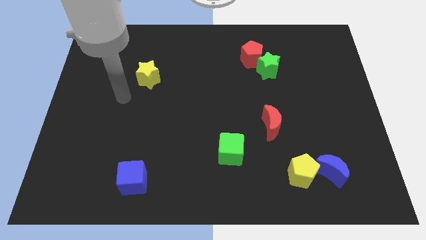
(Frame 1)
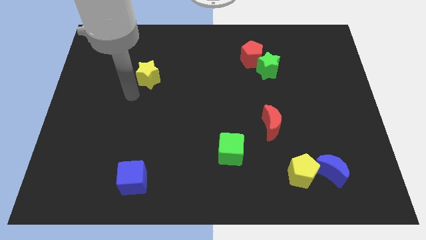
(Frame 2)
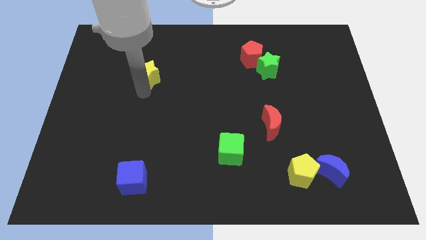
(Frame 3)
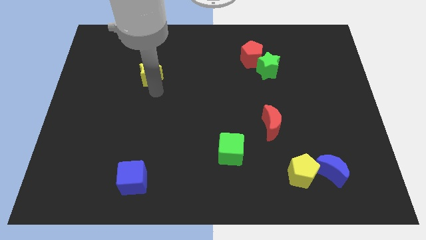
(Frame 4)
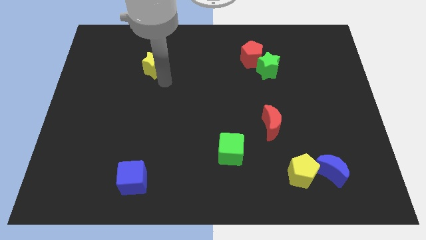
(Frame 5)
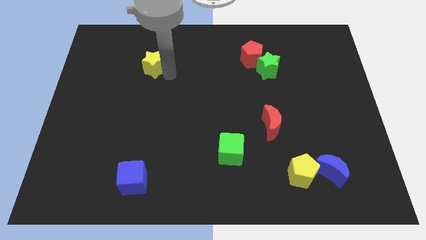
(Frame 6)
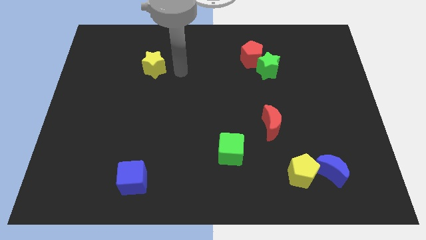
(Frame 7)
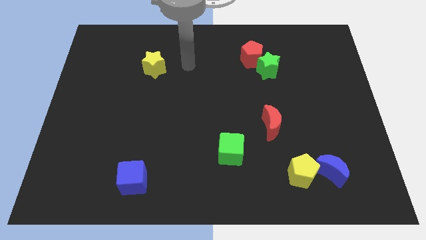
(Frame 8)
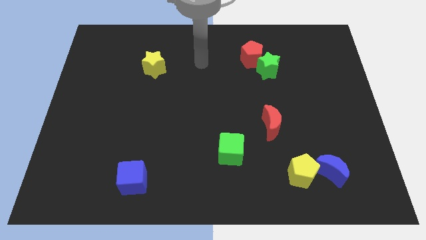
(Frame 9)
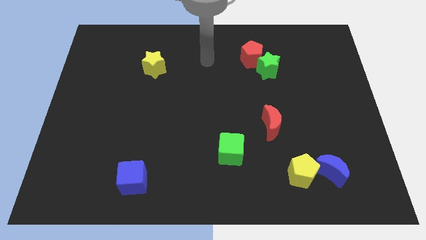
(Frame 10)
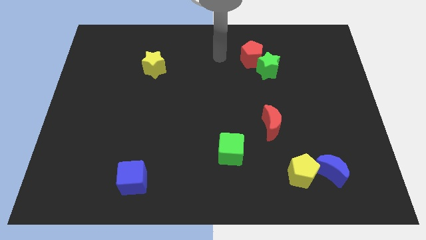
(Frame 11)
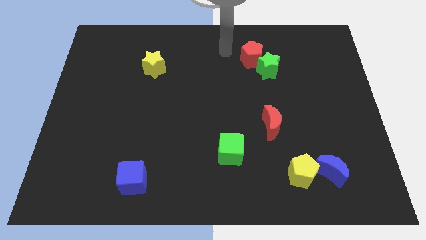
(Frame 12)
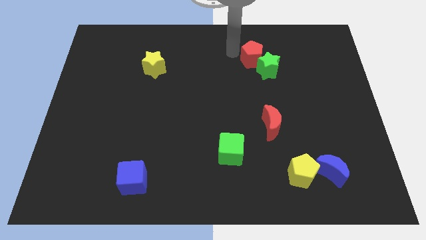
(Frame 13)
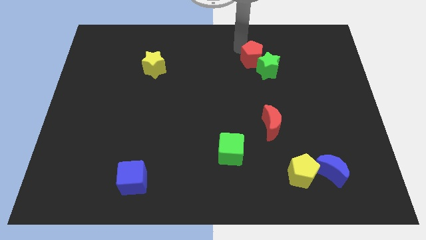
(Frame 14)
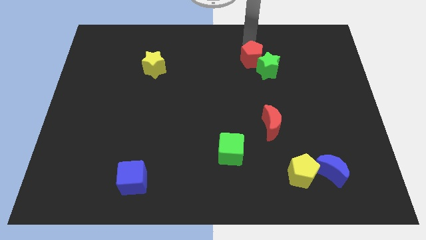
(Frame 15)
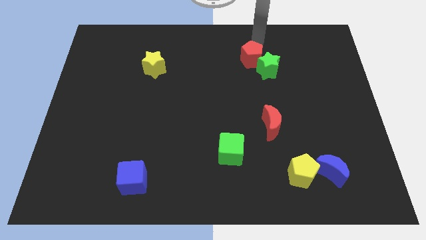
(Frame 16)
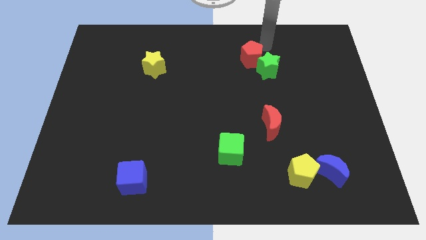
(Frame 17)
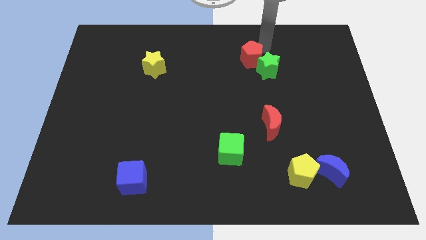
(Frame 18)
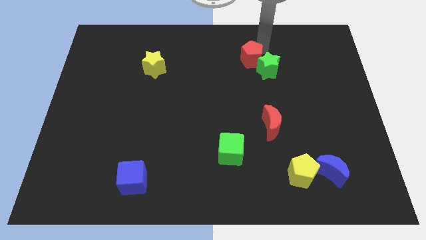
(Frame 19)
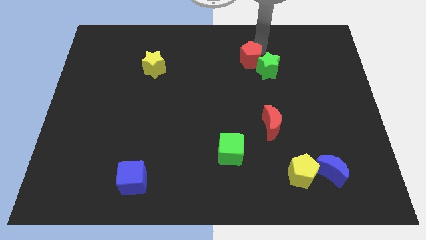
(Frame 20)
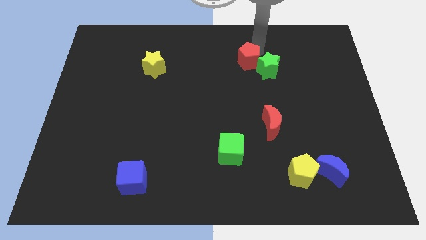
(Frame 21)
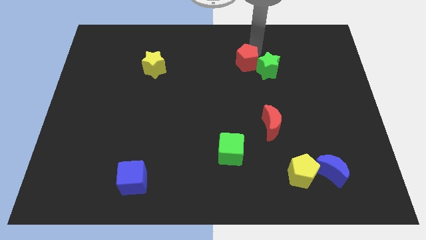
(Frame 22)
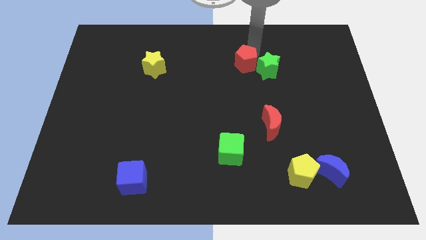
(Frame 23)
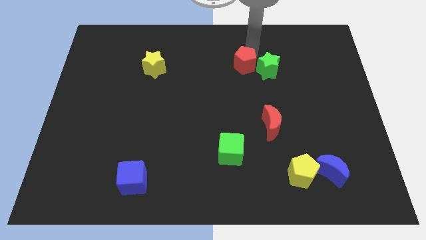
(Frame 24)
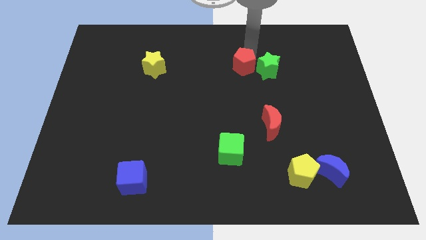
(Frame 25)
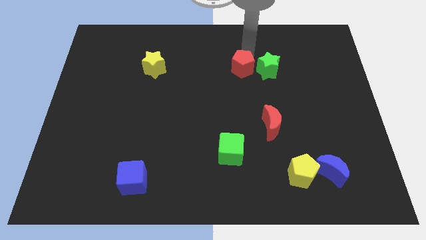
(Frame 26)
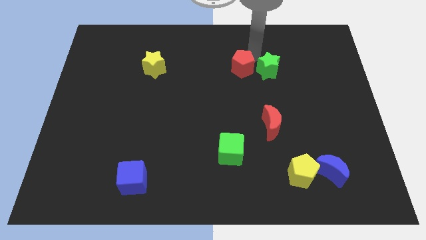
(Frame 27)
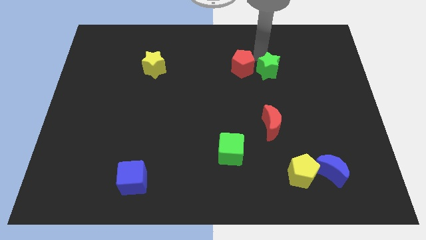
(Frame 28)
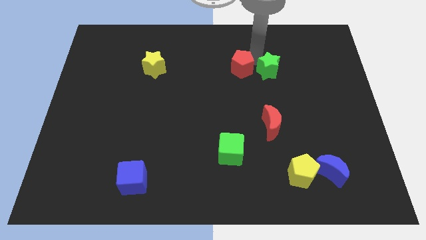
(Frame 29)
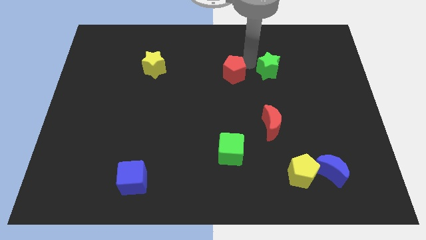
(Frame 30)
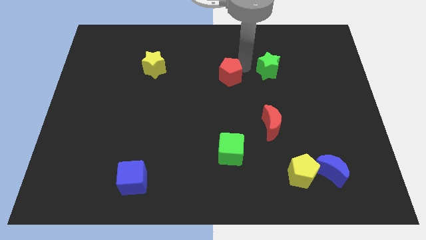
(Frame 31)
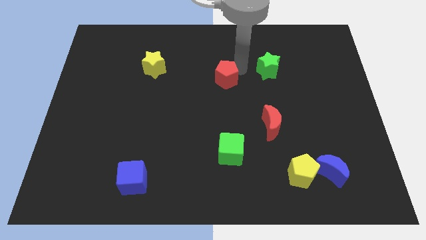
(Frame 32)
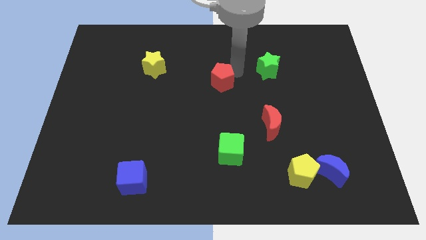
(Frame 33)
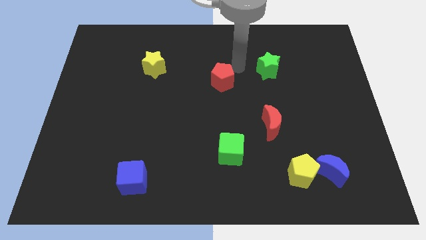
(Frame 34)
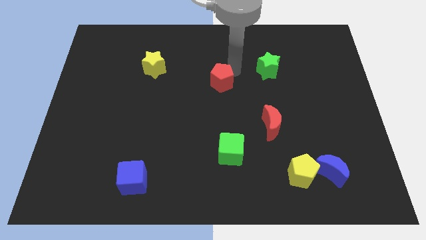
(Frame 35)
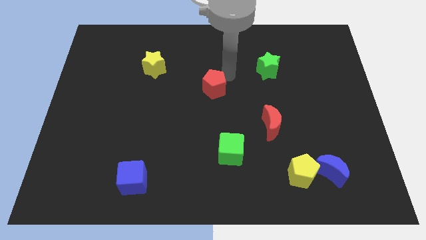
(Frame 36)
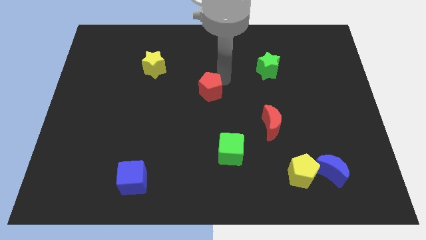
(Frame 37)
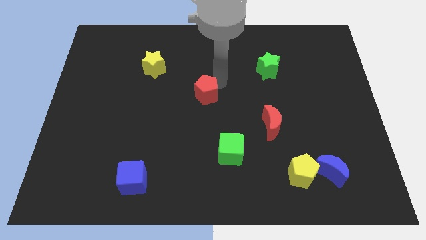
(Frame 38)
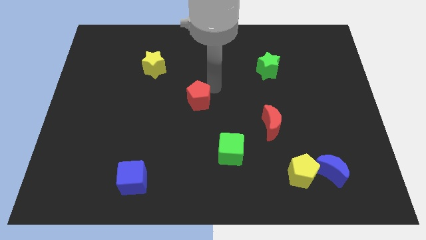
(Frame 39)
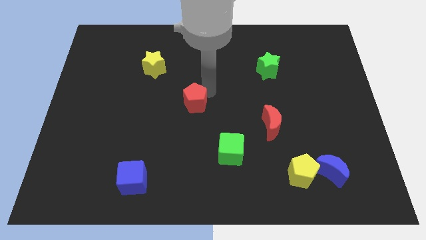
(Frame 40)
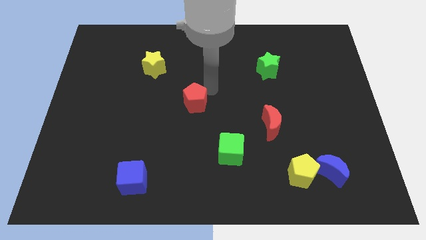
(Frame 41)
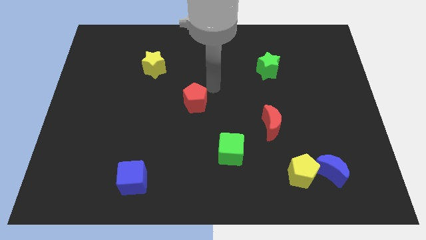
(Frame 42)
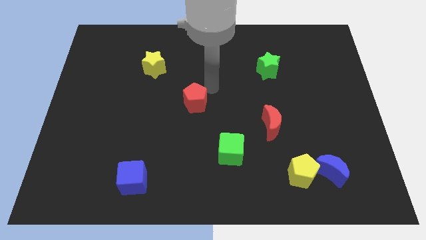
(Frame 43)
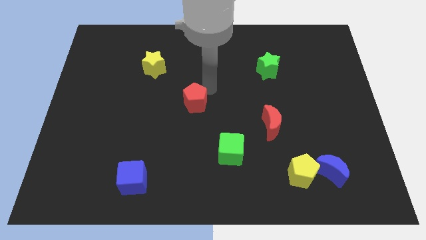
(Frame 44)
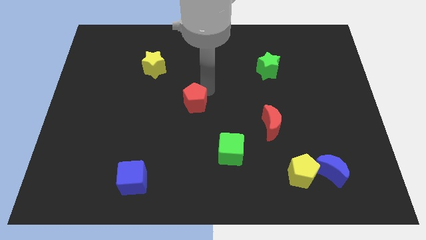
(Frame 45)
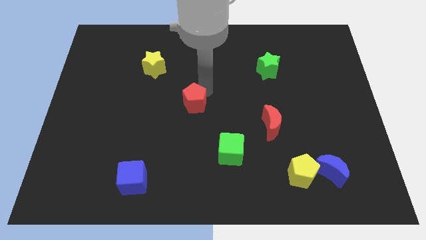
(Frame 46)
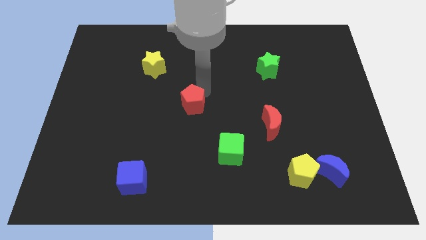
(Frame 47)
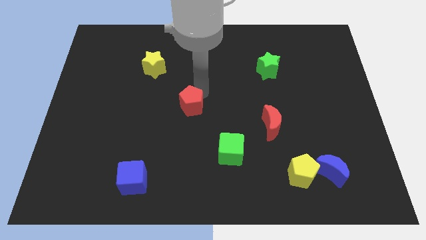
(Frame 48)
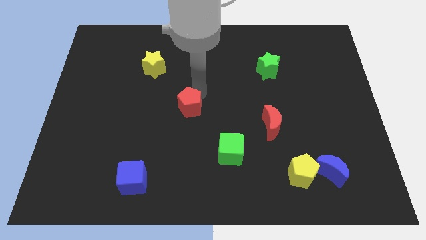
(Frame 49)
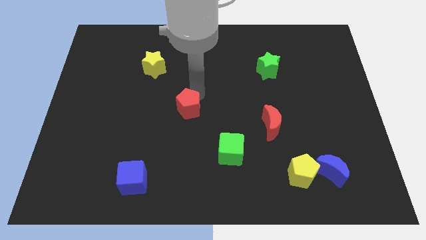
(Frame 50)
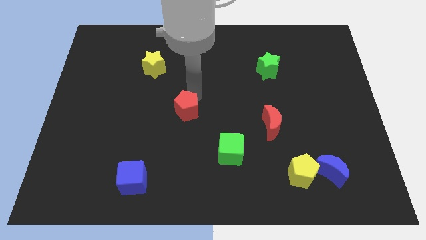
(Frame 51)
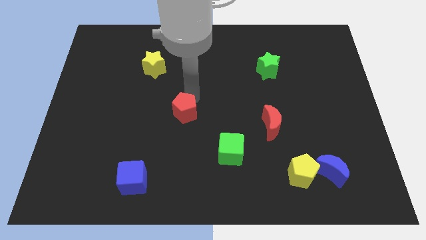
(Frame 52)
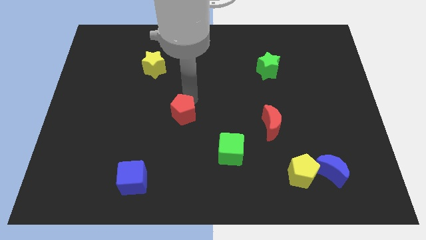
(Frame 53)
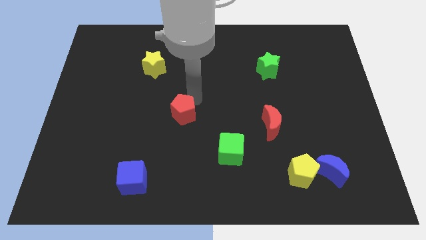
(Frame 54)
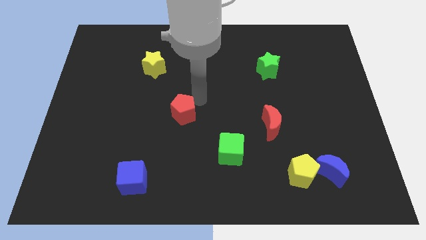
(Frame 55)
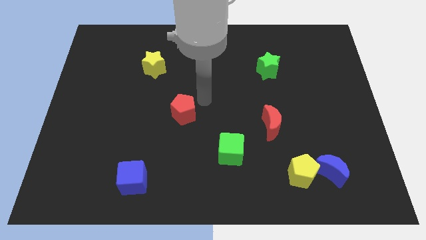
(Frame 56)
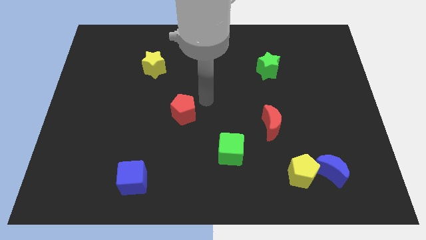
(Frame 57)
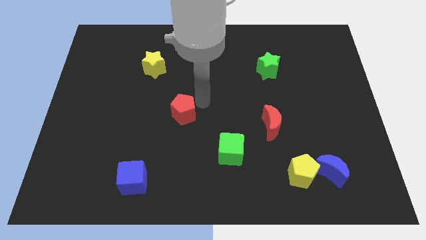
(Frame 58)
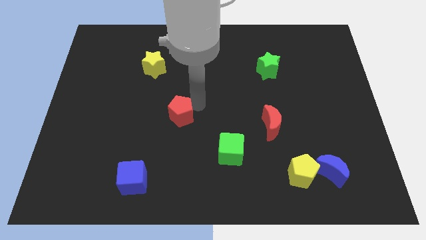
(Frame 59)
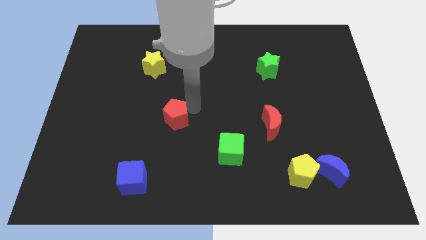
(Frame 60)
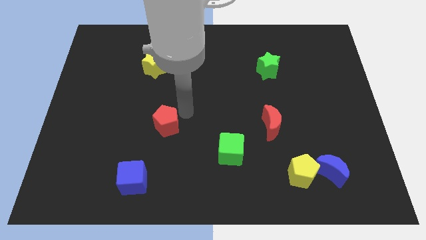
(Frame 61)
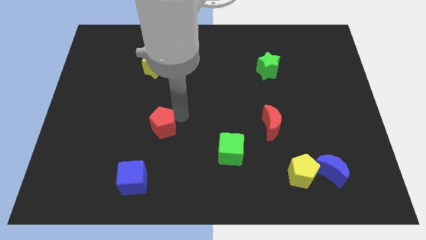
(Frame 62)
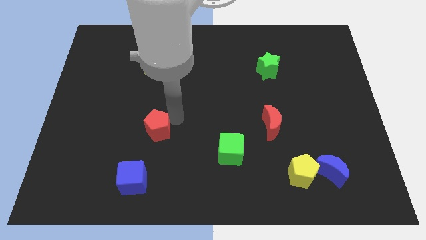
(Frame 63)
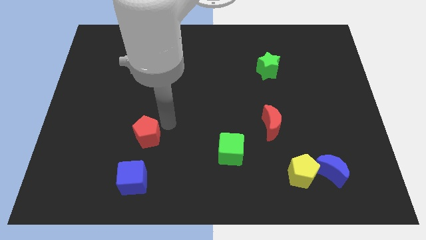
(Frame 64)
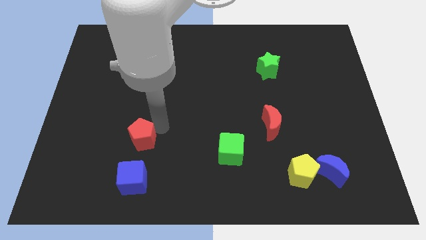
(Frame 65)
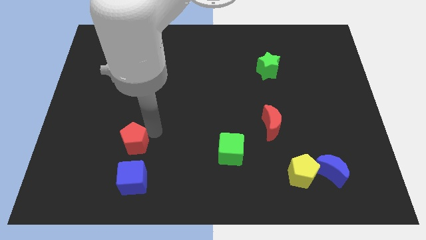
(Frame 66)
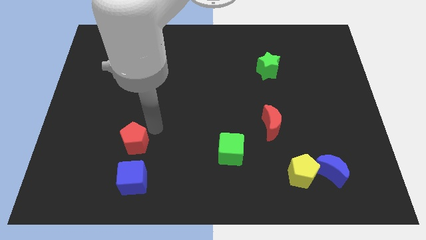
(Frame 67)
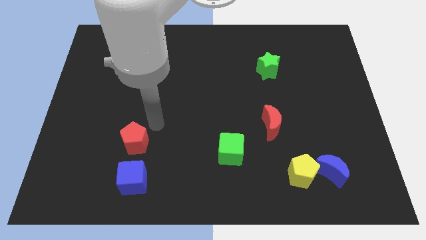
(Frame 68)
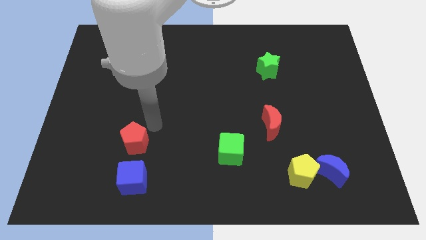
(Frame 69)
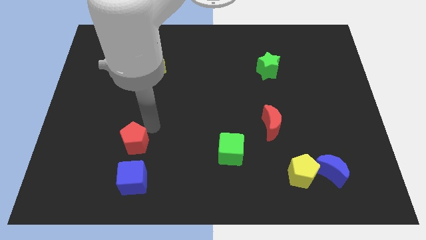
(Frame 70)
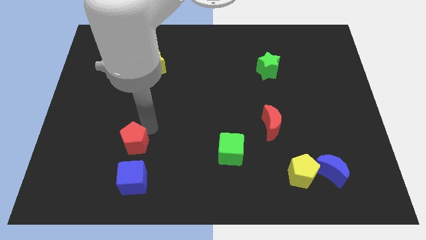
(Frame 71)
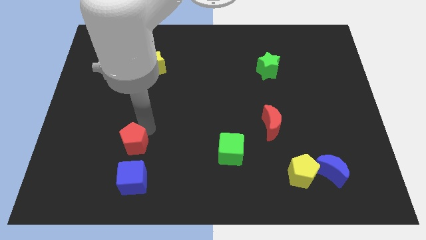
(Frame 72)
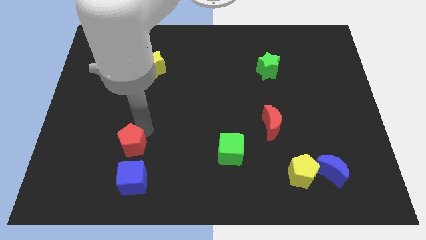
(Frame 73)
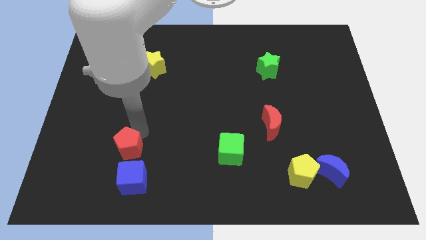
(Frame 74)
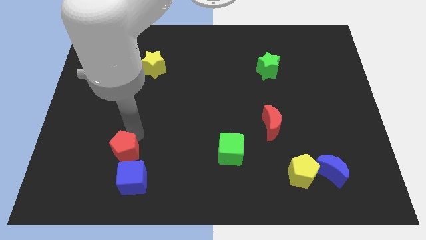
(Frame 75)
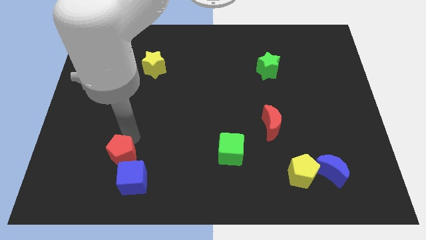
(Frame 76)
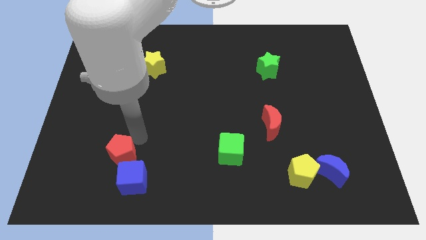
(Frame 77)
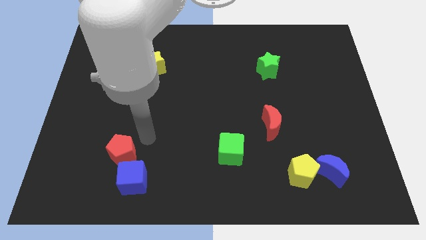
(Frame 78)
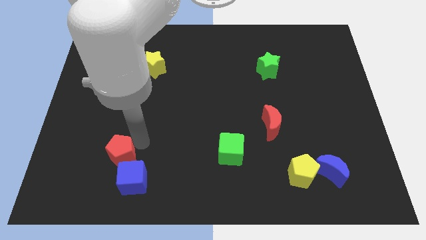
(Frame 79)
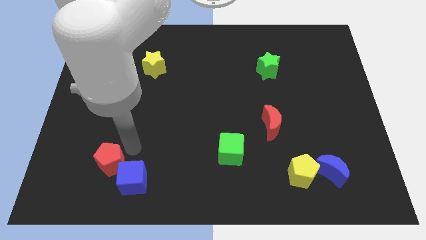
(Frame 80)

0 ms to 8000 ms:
move the red pentagon left of the blue cube
